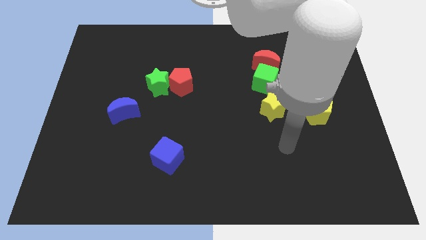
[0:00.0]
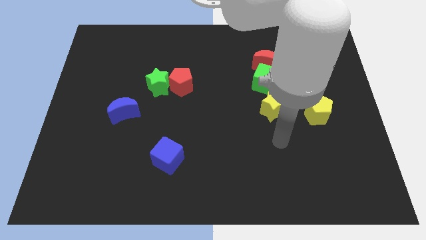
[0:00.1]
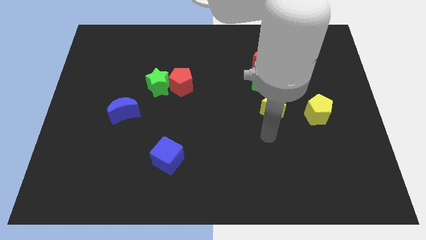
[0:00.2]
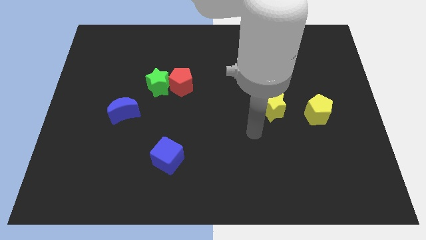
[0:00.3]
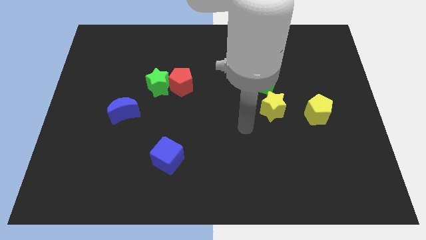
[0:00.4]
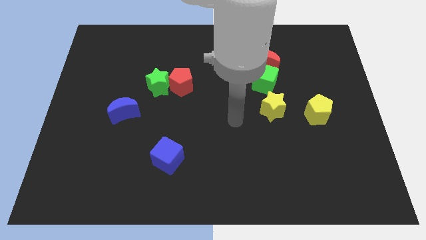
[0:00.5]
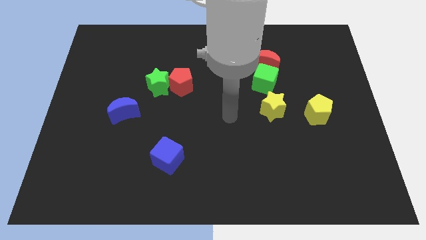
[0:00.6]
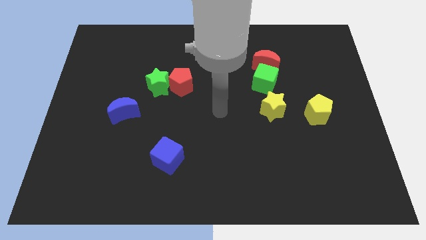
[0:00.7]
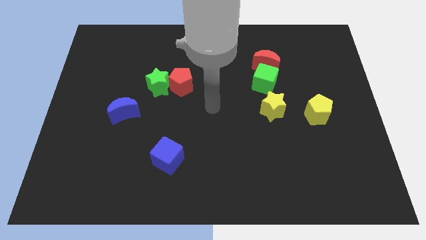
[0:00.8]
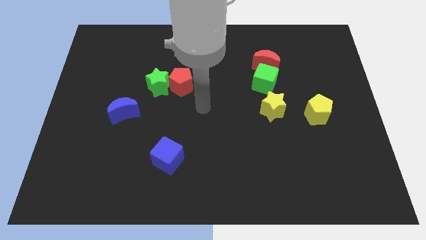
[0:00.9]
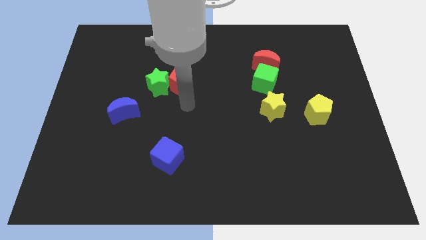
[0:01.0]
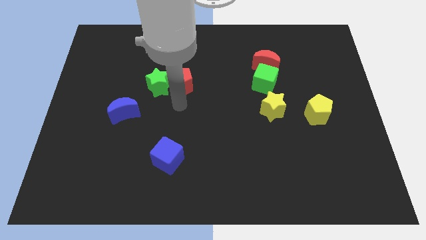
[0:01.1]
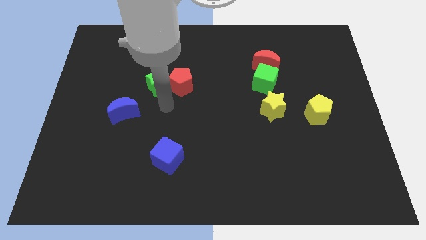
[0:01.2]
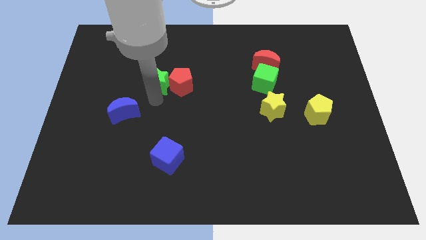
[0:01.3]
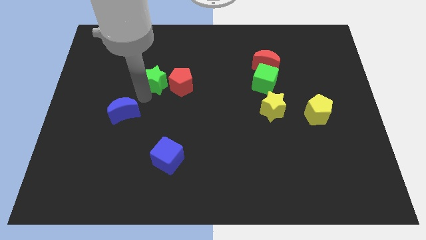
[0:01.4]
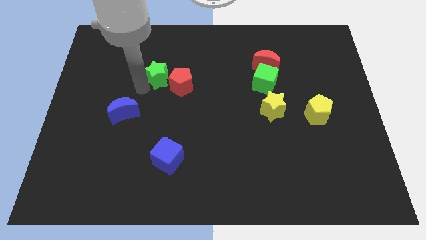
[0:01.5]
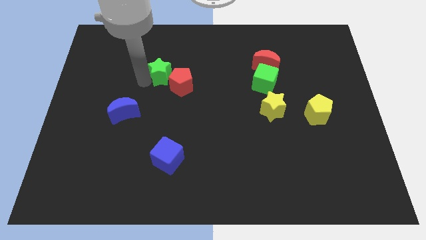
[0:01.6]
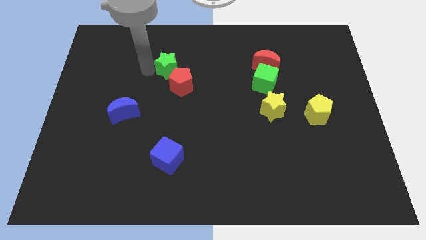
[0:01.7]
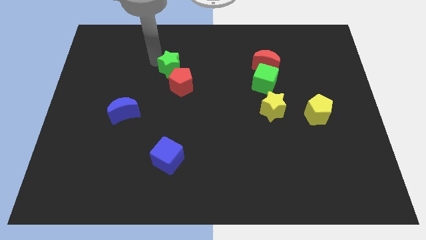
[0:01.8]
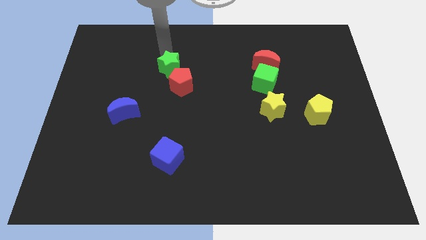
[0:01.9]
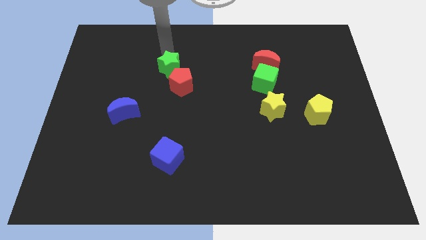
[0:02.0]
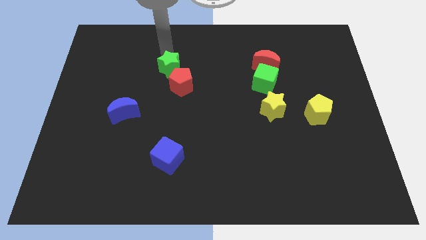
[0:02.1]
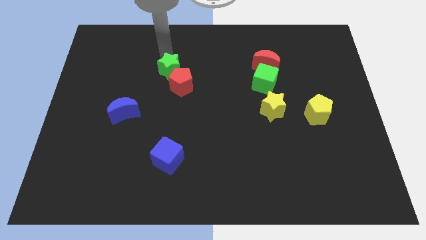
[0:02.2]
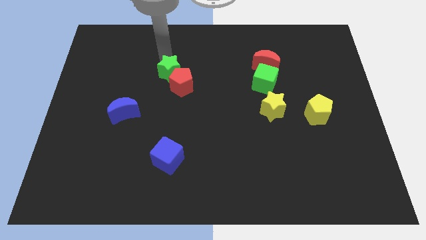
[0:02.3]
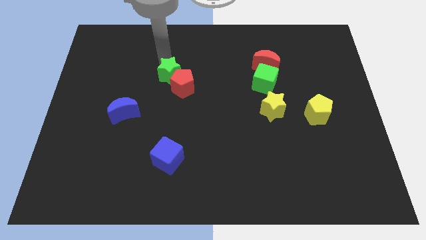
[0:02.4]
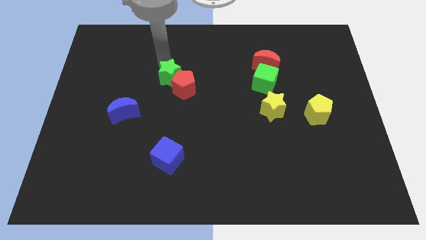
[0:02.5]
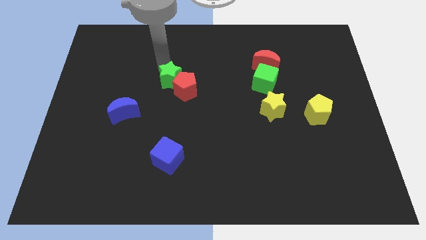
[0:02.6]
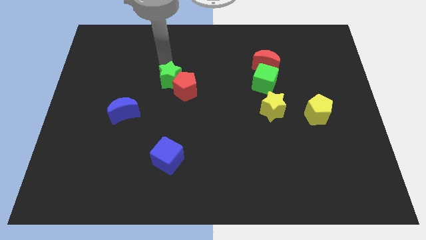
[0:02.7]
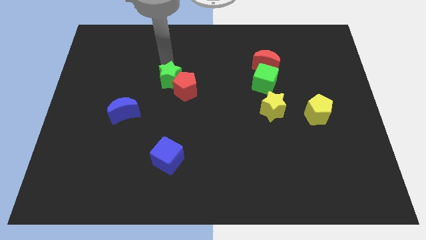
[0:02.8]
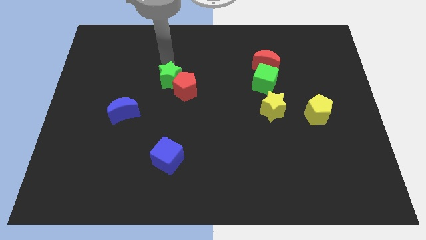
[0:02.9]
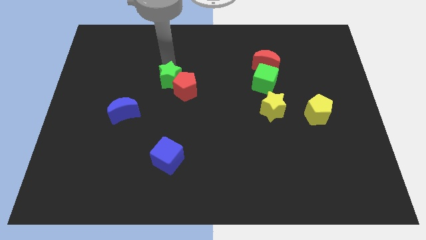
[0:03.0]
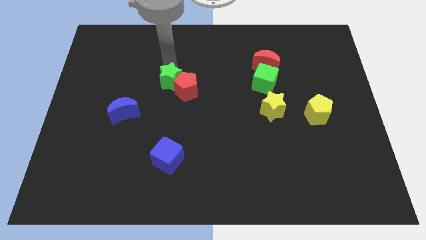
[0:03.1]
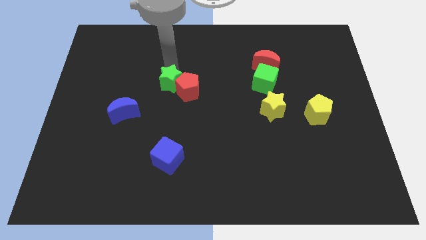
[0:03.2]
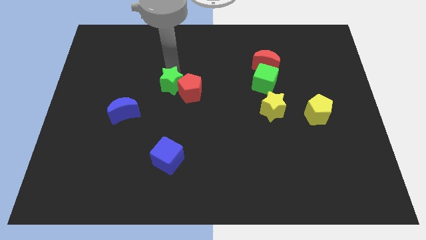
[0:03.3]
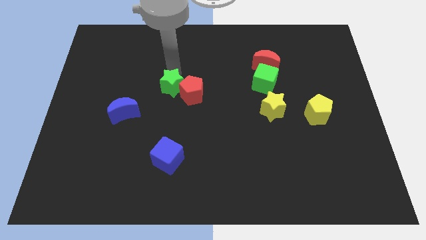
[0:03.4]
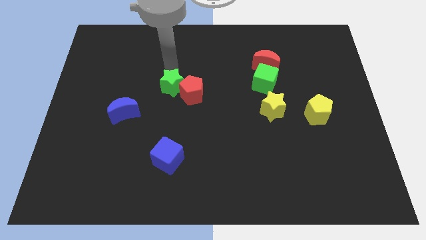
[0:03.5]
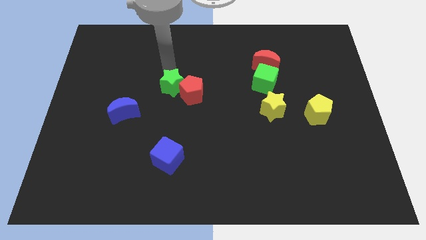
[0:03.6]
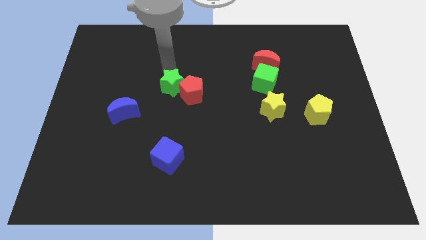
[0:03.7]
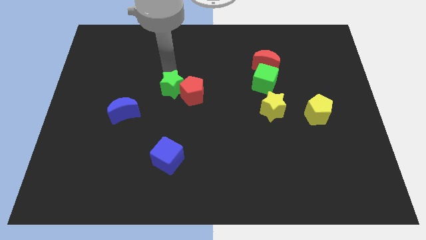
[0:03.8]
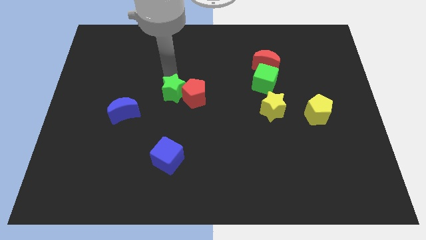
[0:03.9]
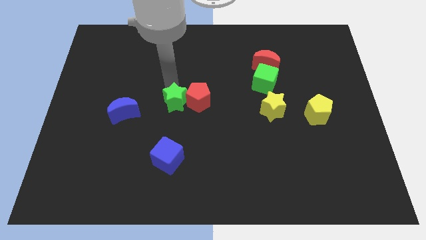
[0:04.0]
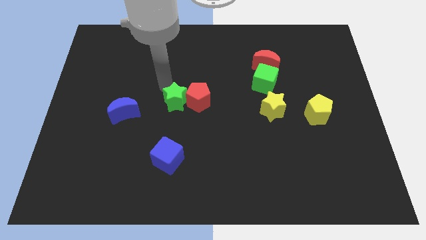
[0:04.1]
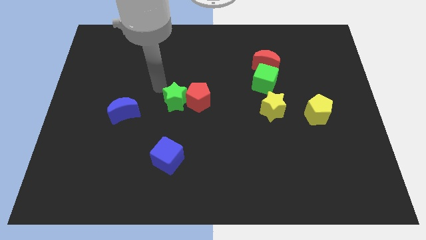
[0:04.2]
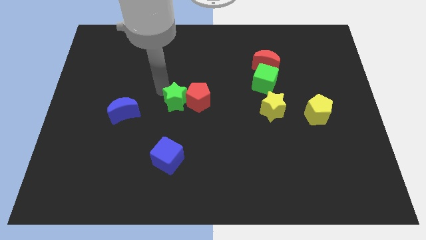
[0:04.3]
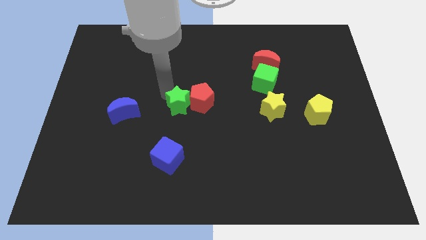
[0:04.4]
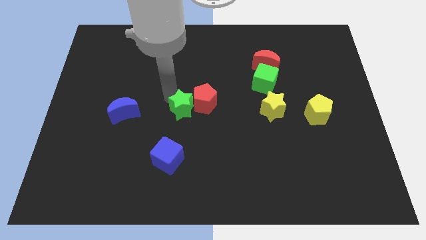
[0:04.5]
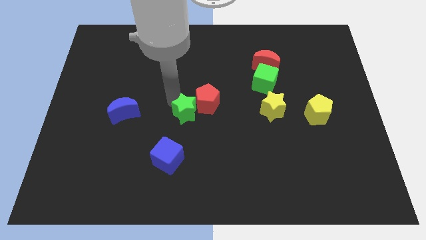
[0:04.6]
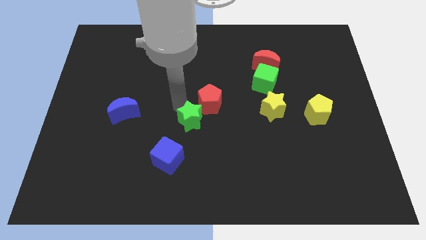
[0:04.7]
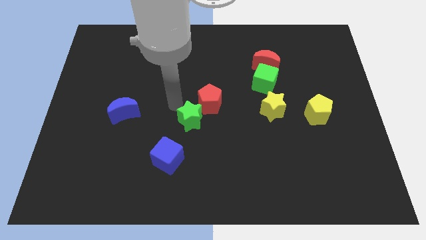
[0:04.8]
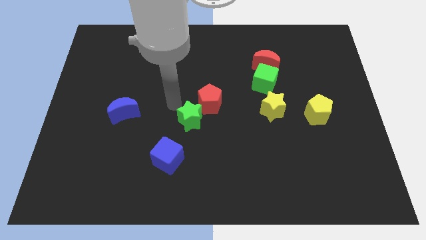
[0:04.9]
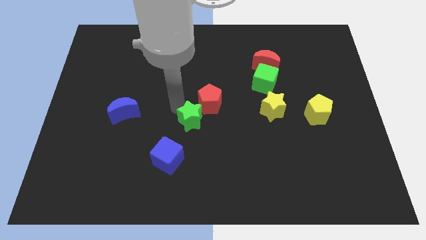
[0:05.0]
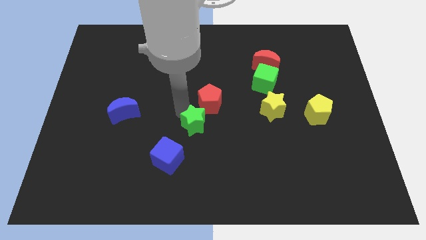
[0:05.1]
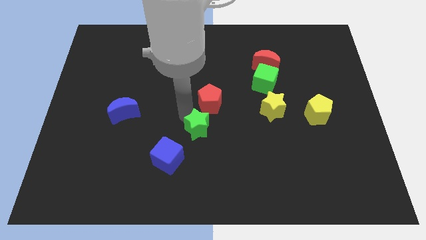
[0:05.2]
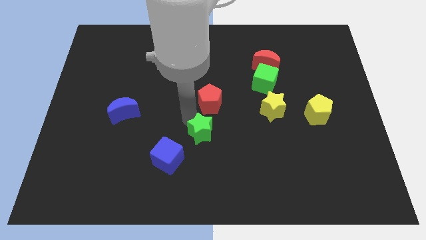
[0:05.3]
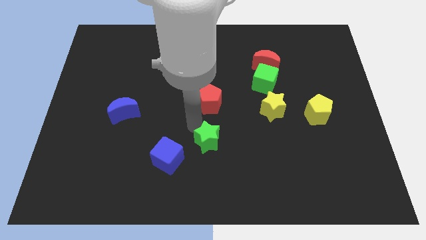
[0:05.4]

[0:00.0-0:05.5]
push the green star downwards and to the right diagonally

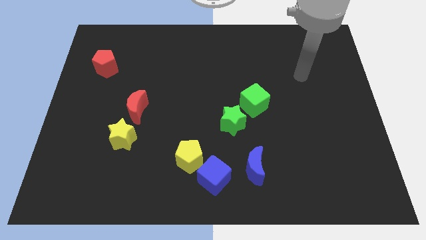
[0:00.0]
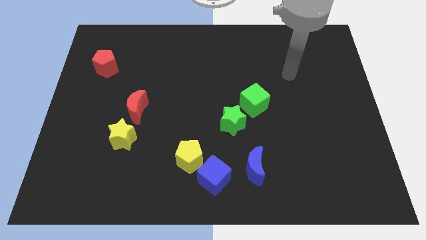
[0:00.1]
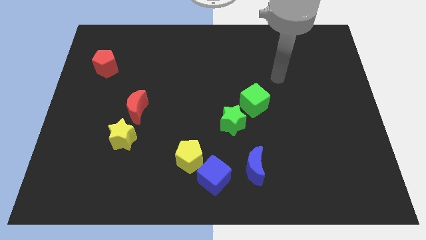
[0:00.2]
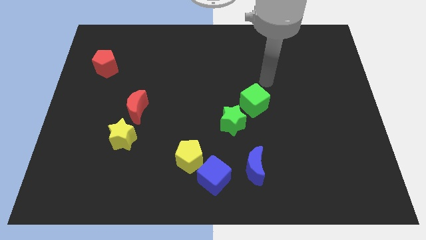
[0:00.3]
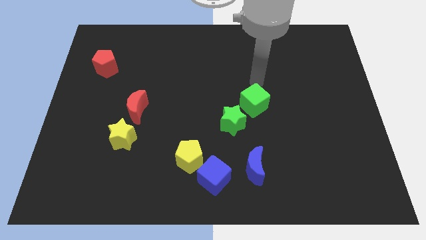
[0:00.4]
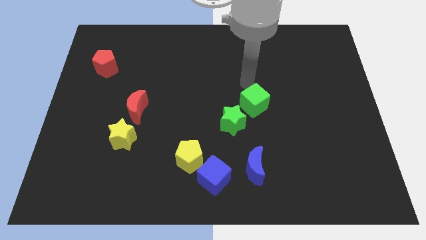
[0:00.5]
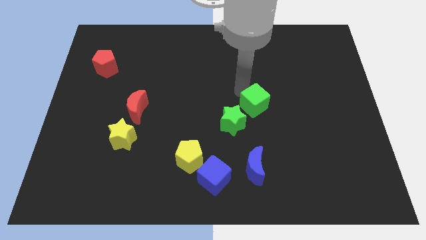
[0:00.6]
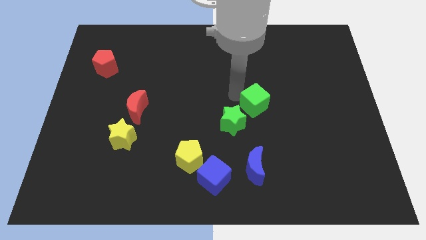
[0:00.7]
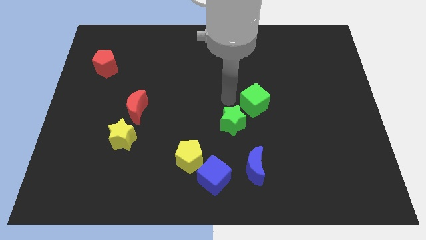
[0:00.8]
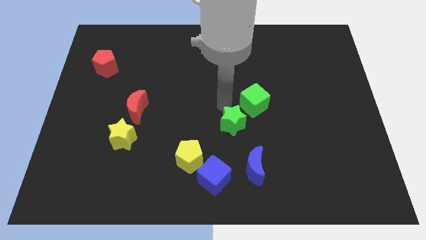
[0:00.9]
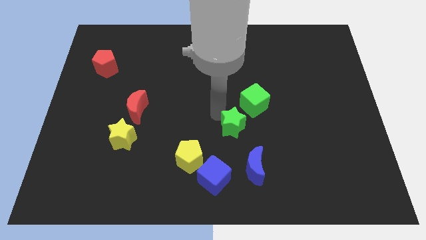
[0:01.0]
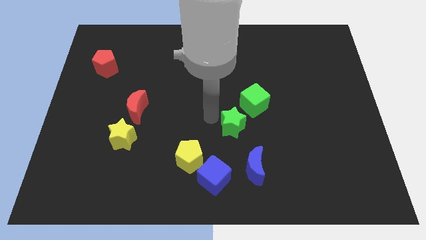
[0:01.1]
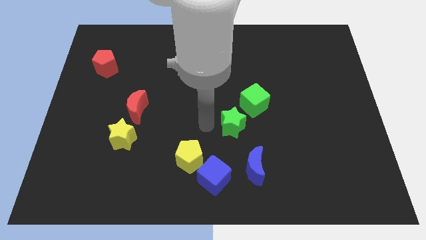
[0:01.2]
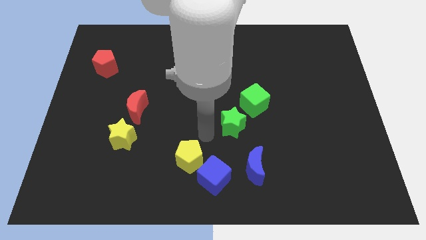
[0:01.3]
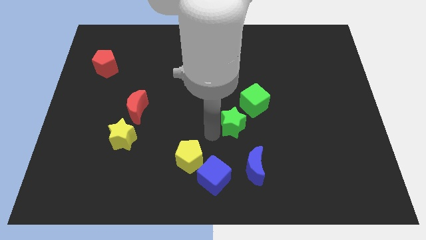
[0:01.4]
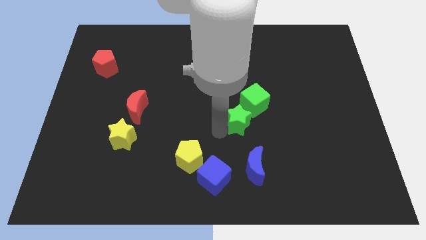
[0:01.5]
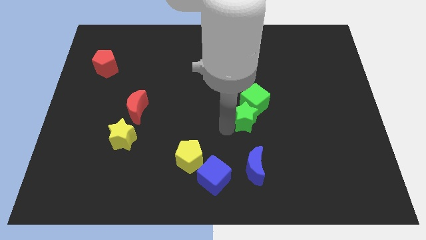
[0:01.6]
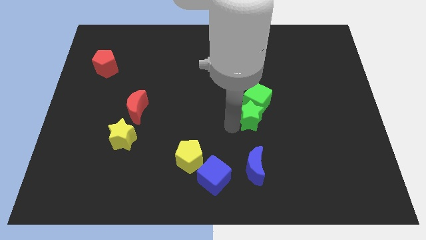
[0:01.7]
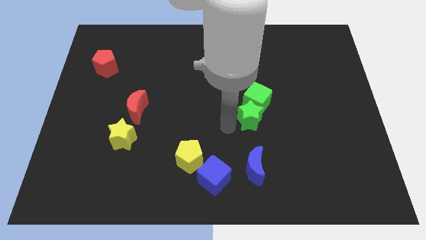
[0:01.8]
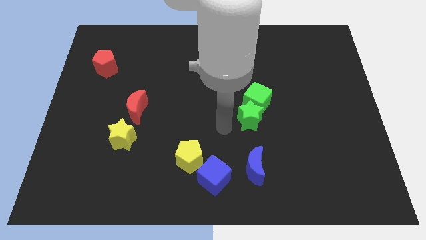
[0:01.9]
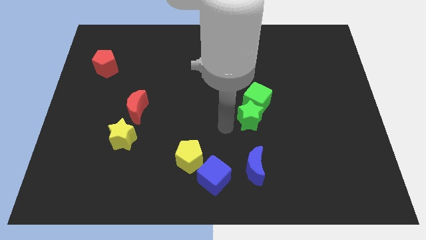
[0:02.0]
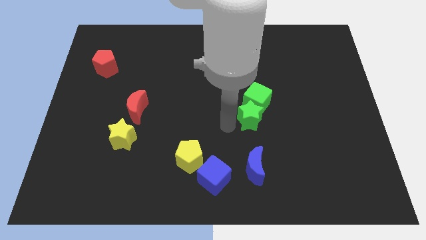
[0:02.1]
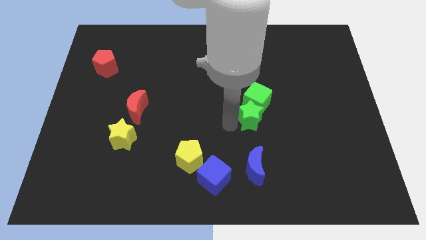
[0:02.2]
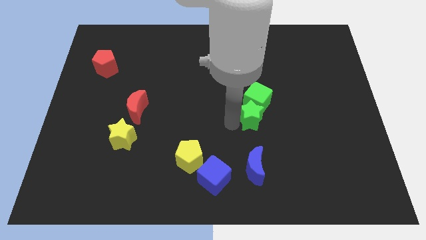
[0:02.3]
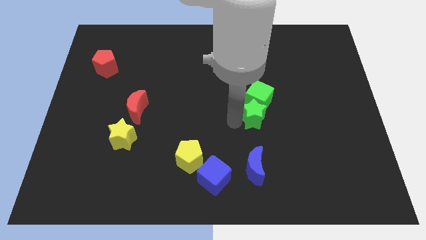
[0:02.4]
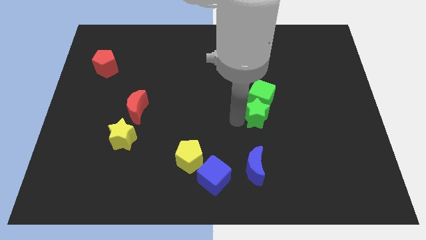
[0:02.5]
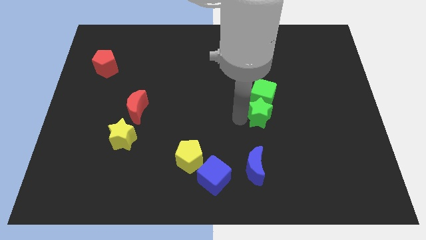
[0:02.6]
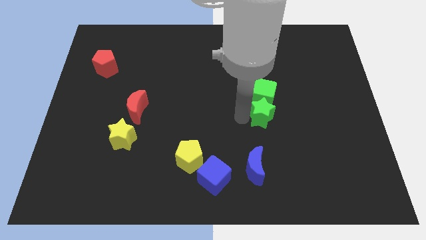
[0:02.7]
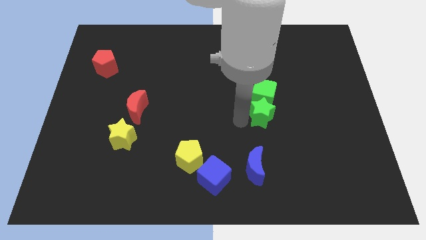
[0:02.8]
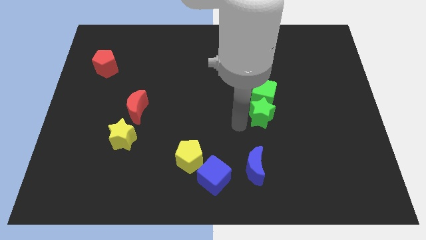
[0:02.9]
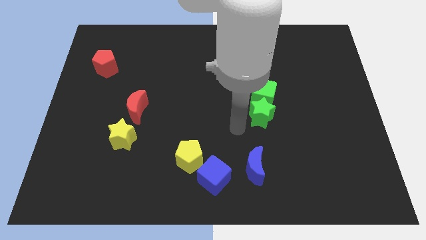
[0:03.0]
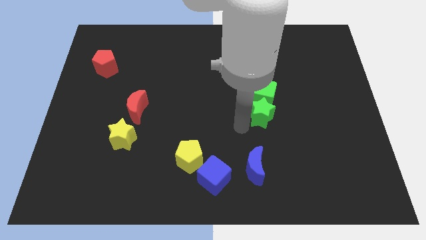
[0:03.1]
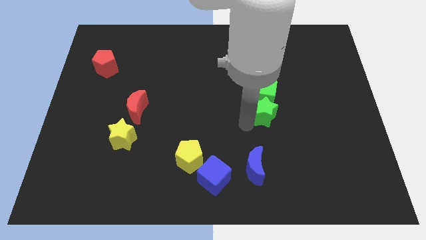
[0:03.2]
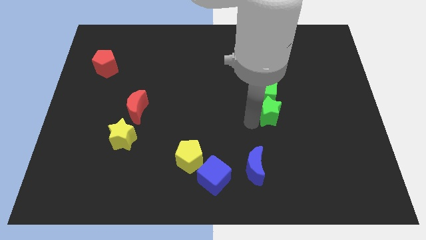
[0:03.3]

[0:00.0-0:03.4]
push the green star somewhat diagonally up and to the right
